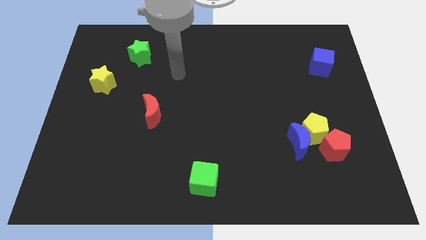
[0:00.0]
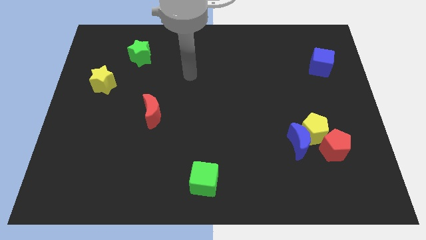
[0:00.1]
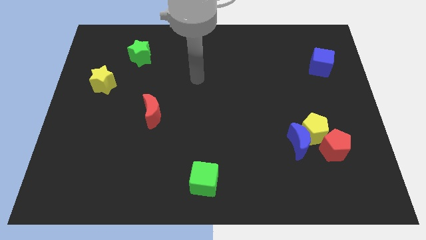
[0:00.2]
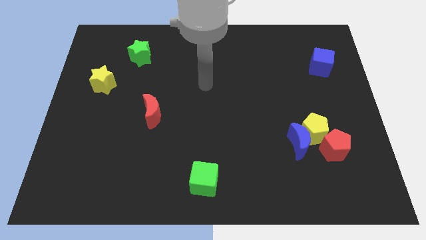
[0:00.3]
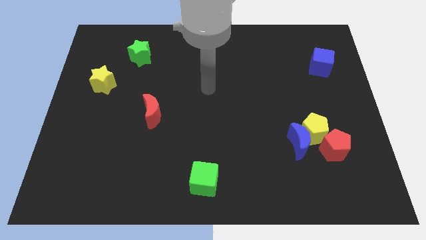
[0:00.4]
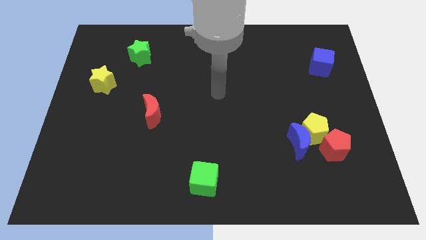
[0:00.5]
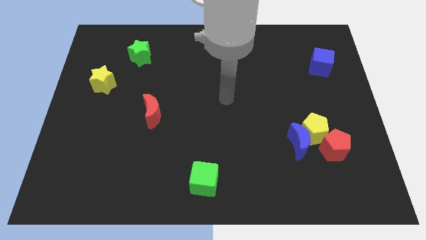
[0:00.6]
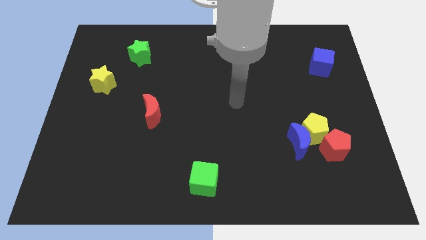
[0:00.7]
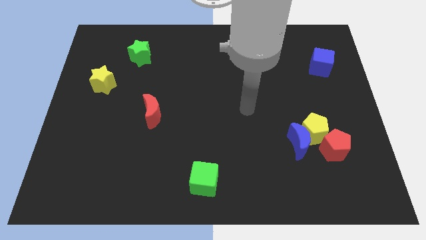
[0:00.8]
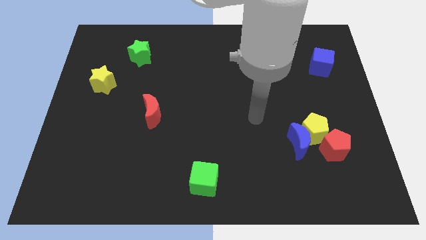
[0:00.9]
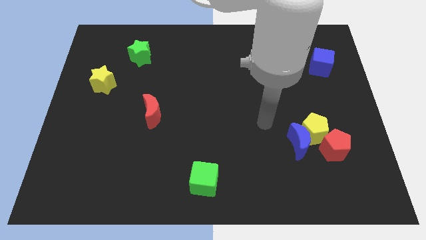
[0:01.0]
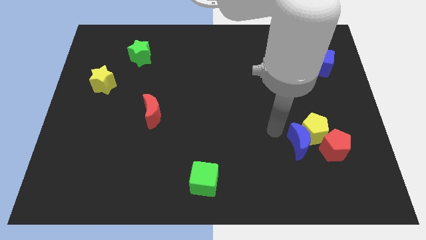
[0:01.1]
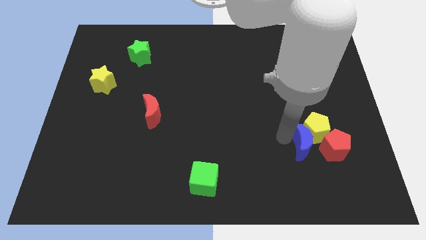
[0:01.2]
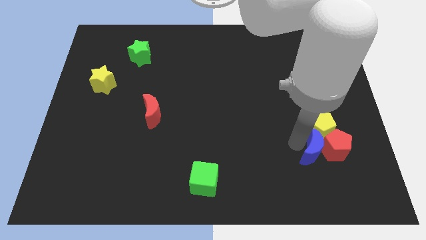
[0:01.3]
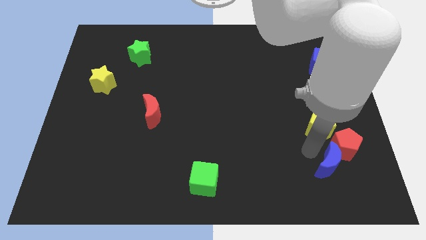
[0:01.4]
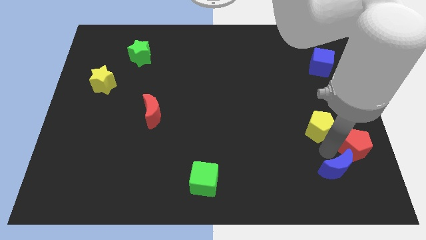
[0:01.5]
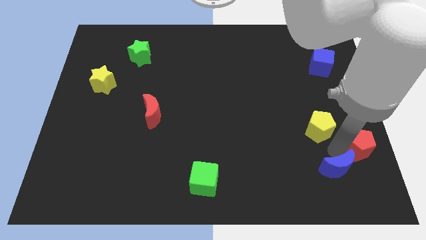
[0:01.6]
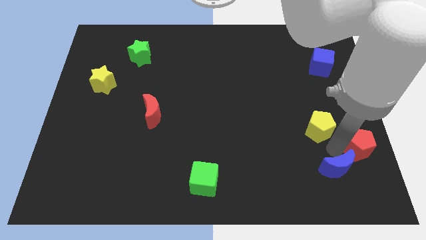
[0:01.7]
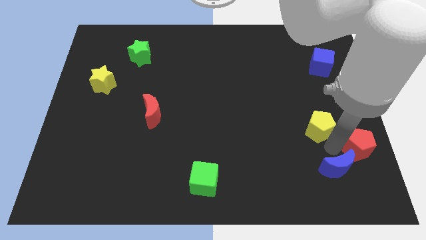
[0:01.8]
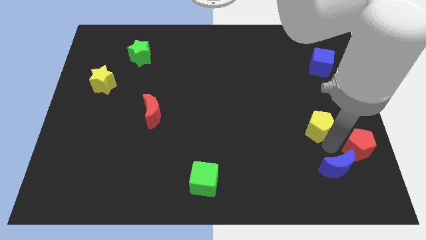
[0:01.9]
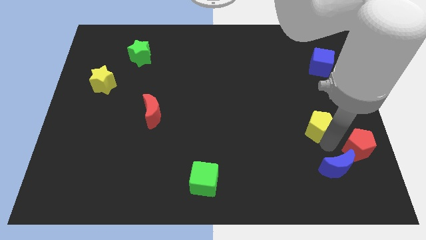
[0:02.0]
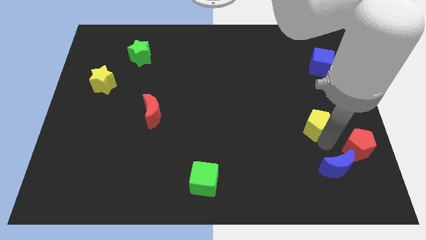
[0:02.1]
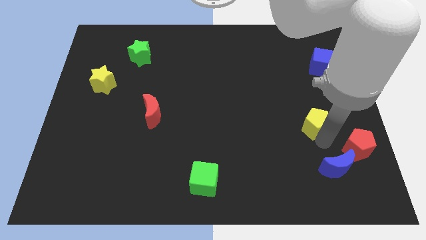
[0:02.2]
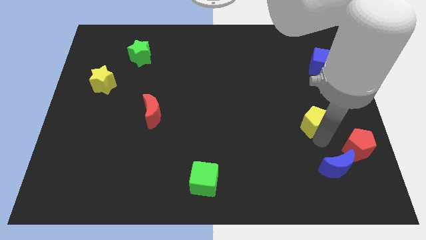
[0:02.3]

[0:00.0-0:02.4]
move the yellow pentagon away from the blue moon and red pentagon

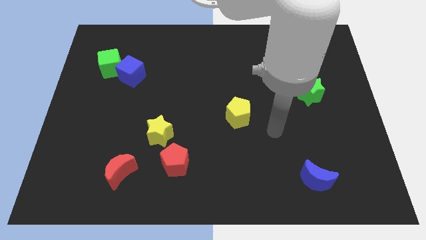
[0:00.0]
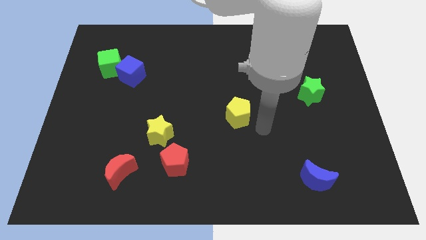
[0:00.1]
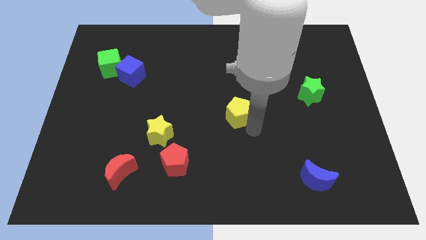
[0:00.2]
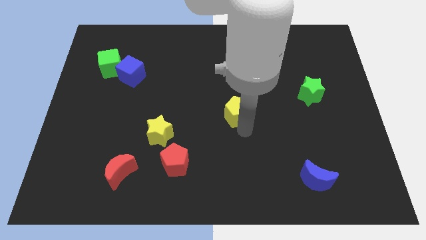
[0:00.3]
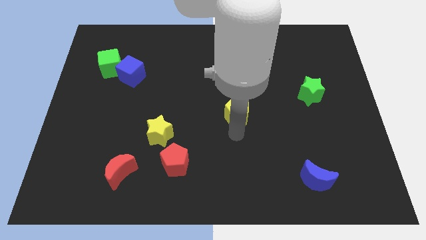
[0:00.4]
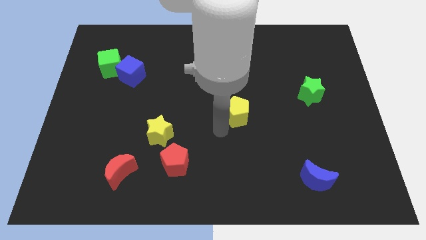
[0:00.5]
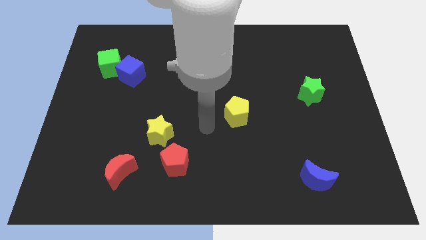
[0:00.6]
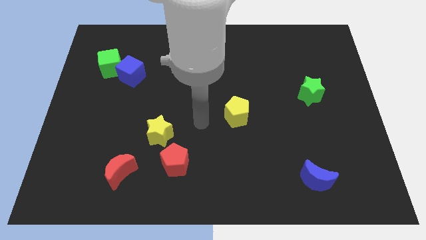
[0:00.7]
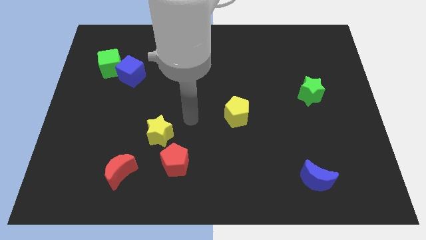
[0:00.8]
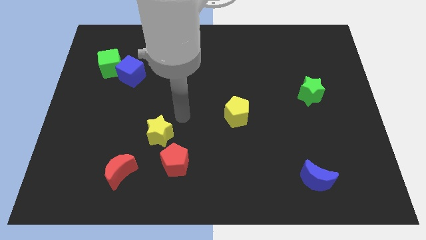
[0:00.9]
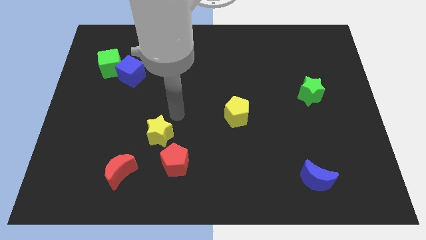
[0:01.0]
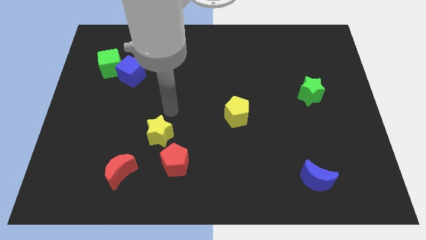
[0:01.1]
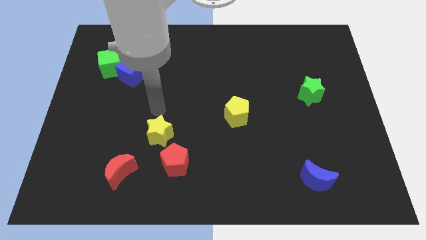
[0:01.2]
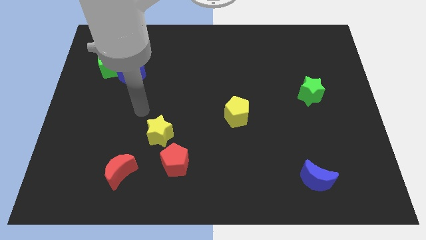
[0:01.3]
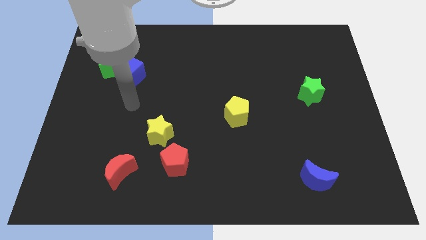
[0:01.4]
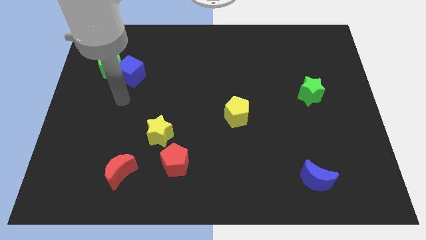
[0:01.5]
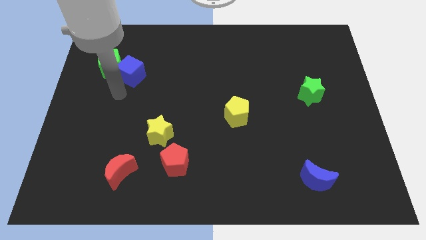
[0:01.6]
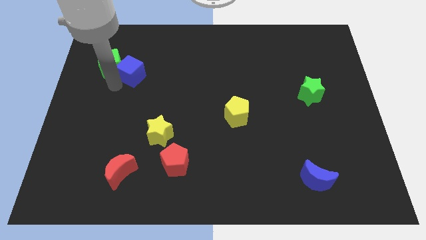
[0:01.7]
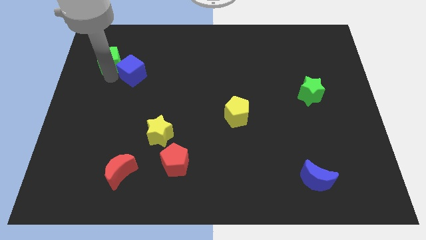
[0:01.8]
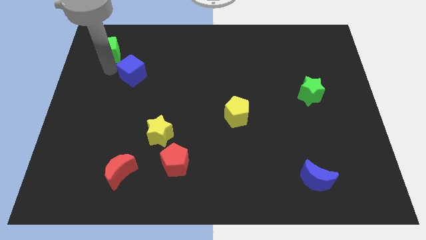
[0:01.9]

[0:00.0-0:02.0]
separate the blue cube from the green cube

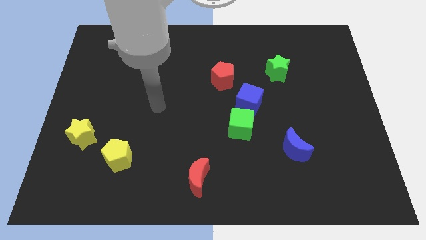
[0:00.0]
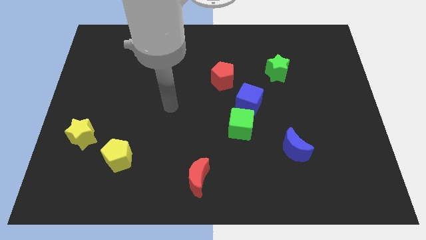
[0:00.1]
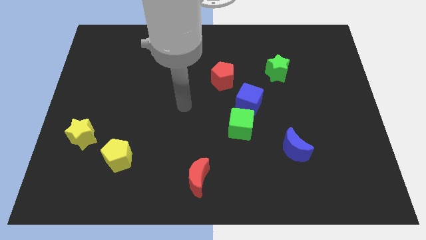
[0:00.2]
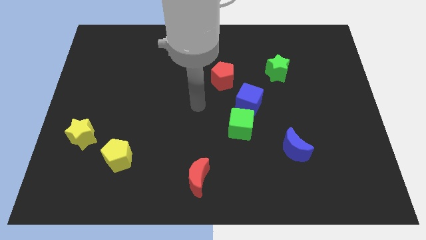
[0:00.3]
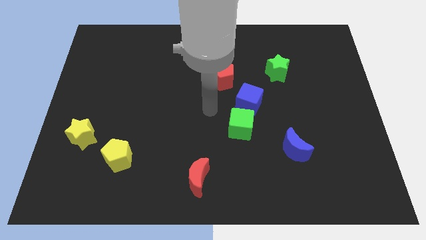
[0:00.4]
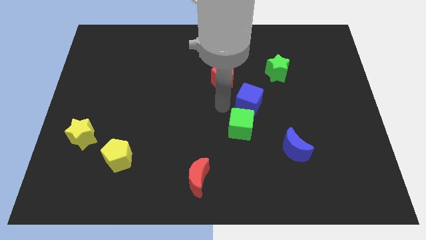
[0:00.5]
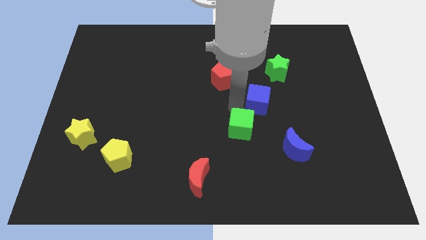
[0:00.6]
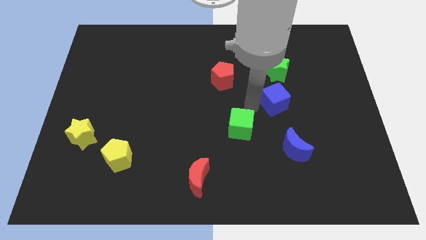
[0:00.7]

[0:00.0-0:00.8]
pull the green cube apart from the blue cube

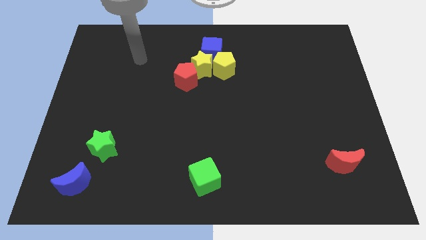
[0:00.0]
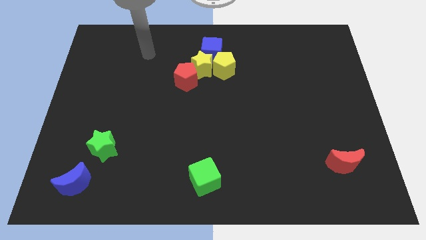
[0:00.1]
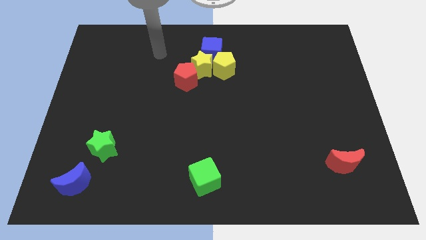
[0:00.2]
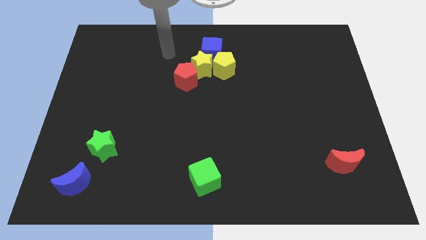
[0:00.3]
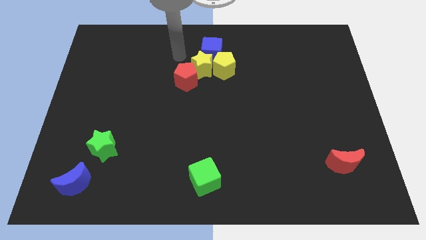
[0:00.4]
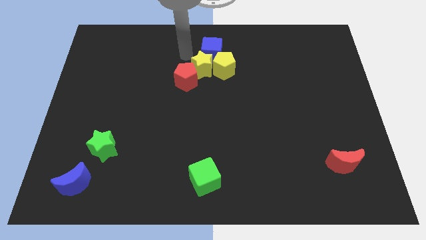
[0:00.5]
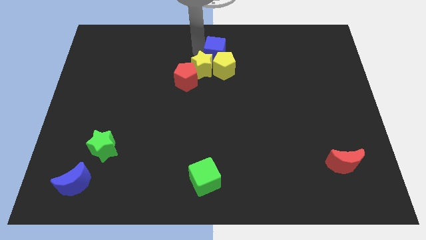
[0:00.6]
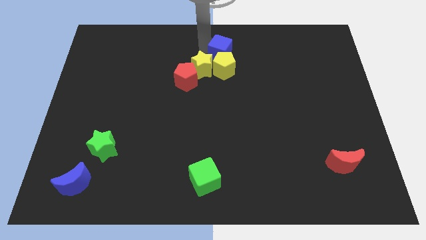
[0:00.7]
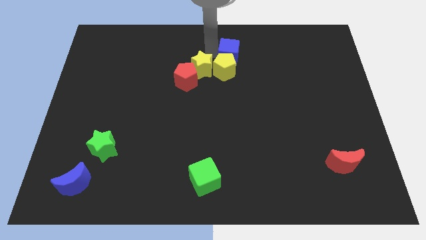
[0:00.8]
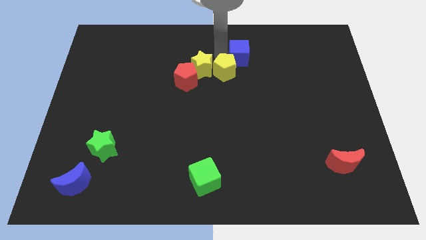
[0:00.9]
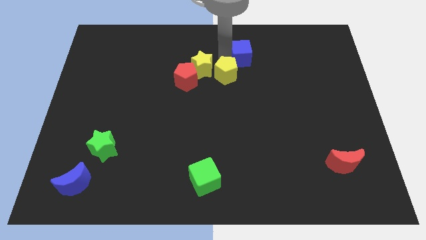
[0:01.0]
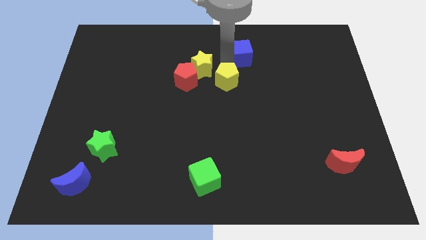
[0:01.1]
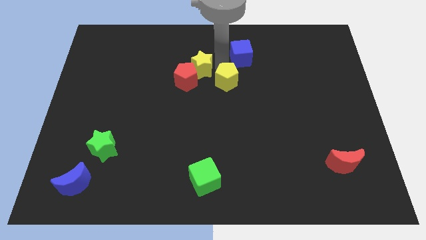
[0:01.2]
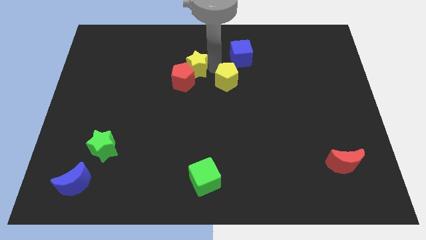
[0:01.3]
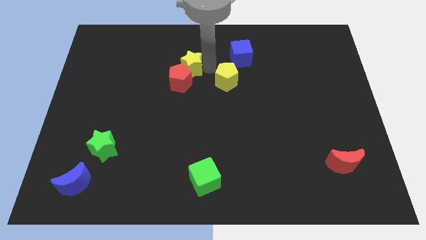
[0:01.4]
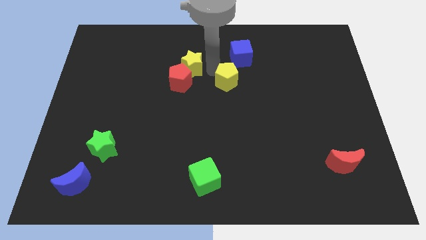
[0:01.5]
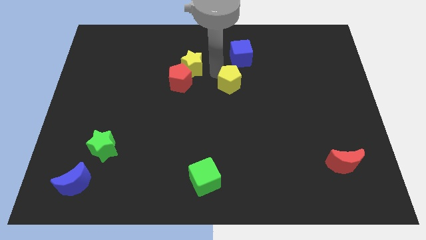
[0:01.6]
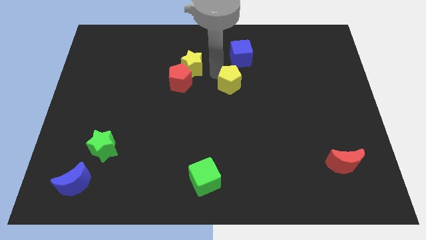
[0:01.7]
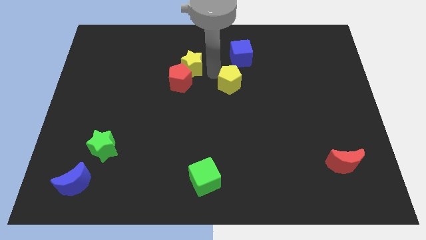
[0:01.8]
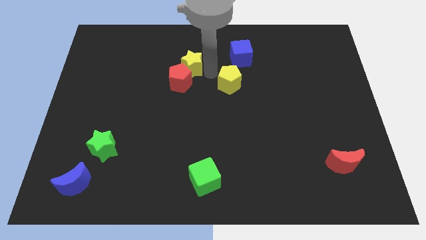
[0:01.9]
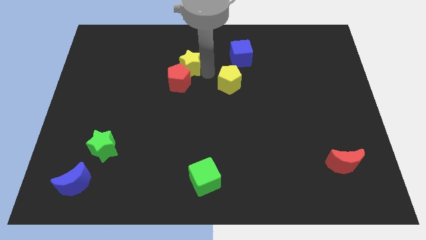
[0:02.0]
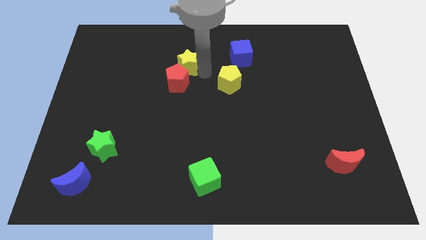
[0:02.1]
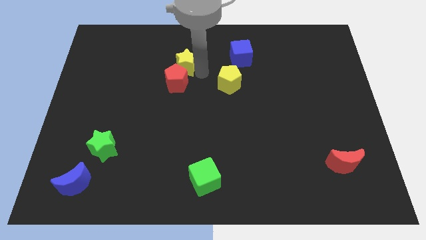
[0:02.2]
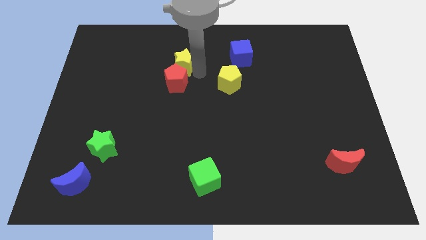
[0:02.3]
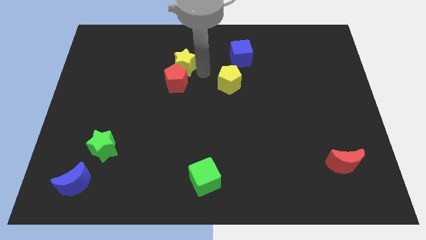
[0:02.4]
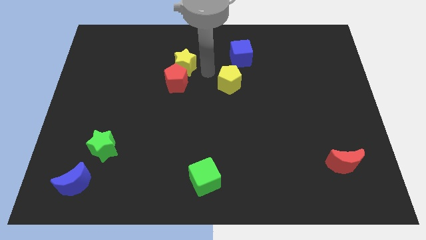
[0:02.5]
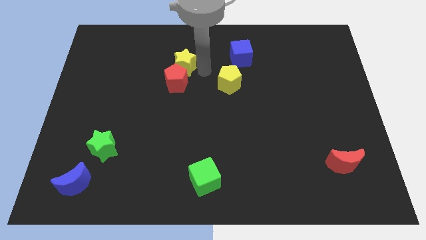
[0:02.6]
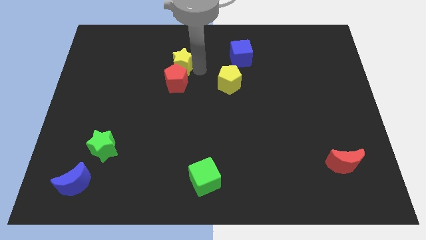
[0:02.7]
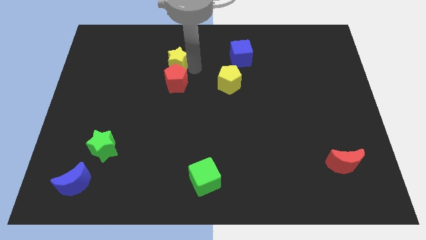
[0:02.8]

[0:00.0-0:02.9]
separate the yellow star from the red pentagon, yellow pentagon, and blue cube

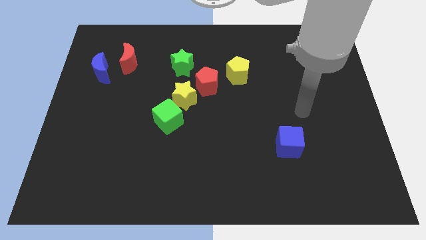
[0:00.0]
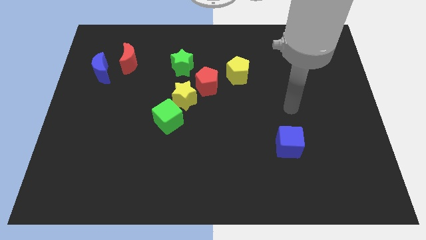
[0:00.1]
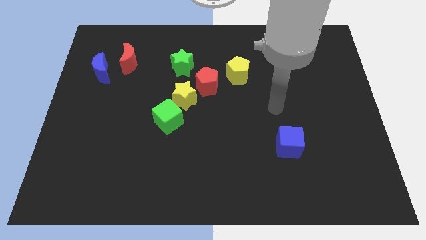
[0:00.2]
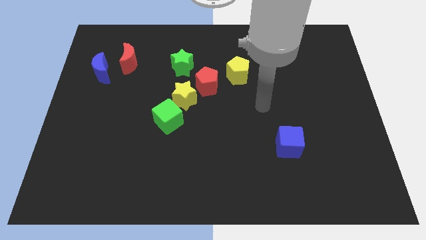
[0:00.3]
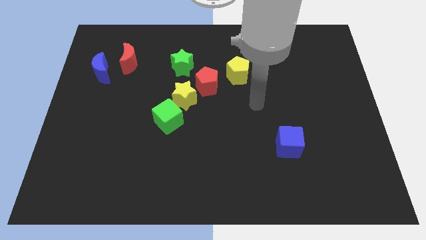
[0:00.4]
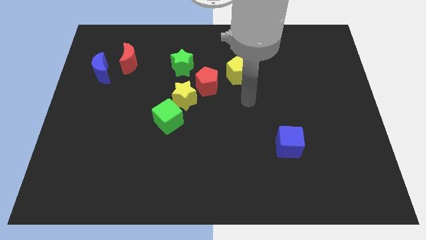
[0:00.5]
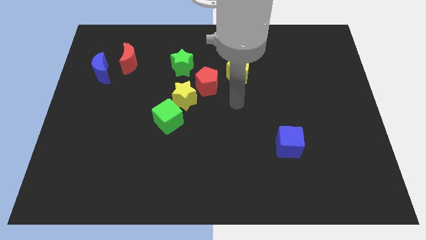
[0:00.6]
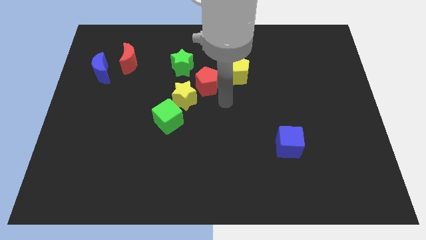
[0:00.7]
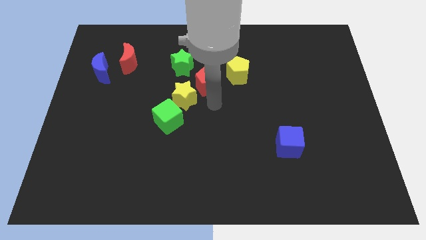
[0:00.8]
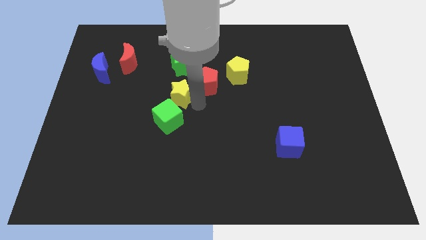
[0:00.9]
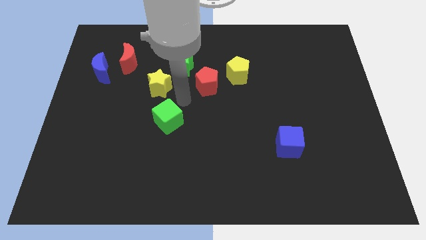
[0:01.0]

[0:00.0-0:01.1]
pull the green cube apart from the yellow star
